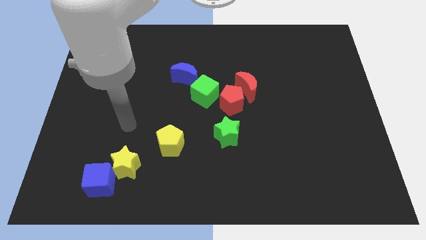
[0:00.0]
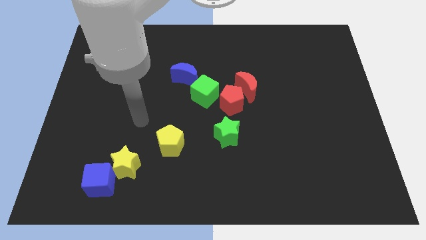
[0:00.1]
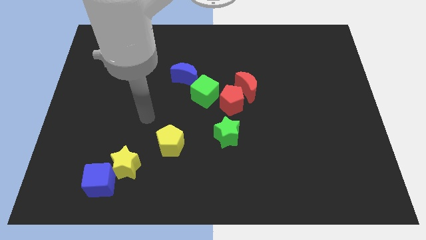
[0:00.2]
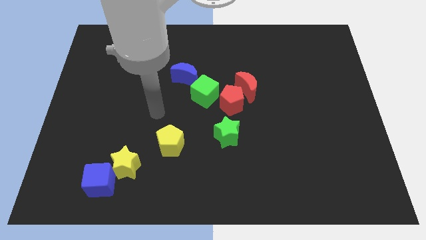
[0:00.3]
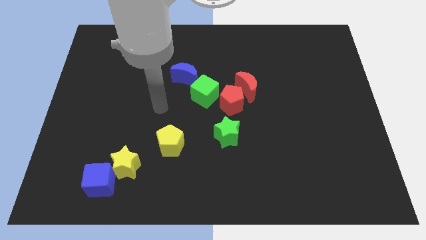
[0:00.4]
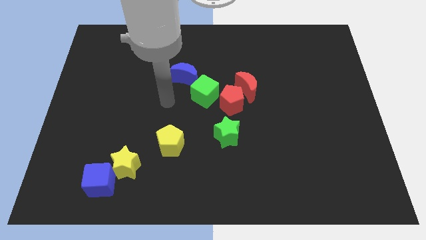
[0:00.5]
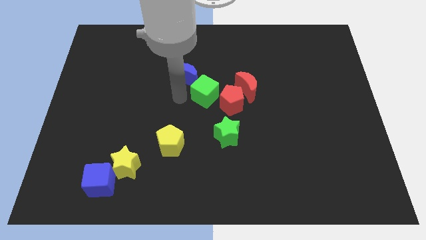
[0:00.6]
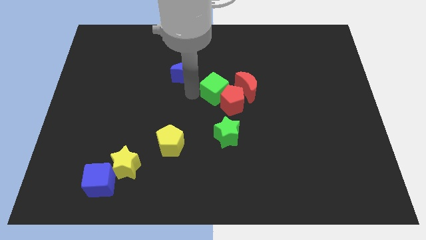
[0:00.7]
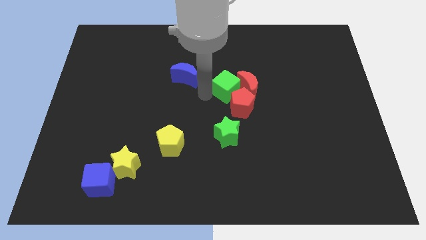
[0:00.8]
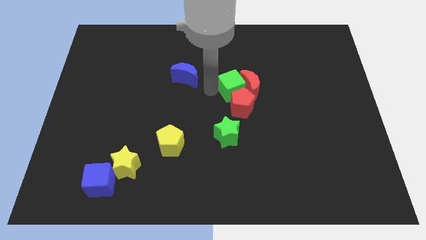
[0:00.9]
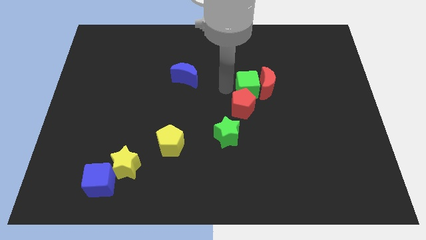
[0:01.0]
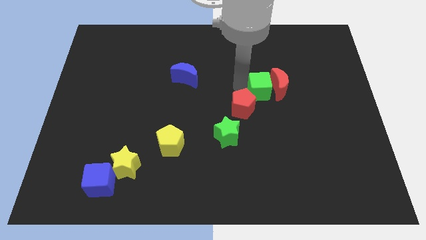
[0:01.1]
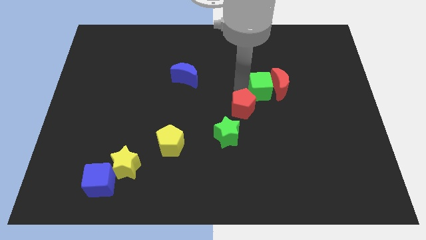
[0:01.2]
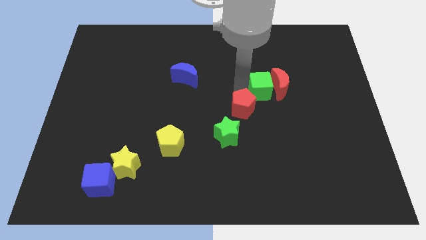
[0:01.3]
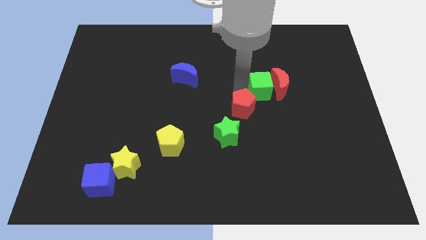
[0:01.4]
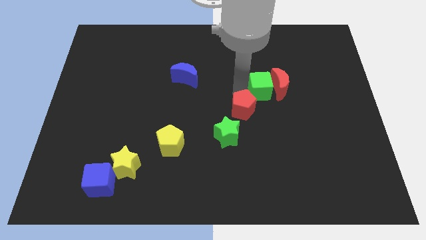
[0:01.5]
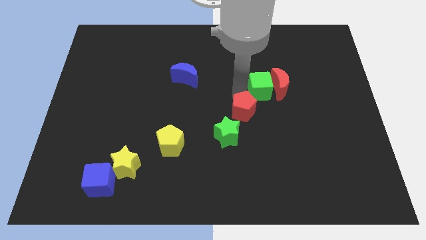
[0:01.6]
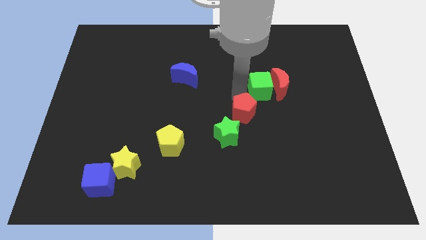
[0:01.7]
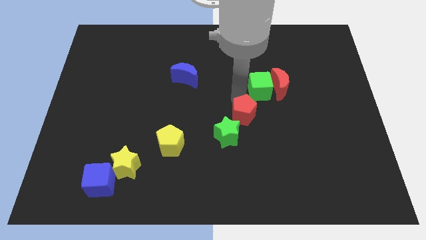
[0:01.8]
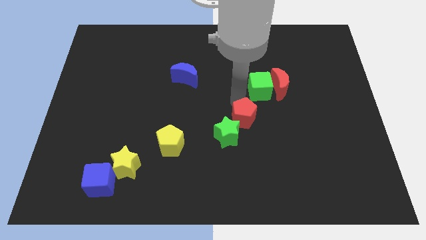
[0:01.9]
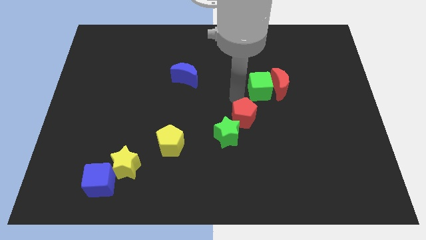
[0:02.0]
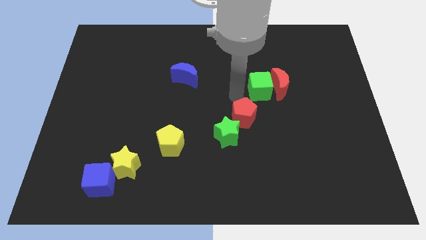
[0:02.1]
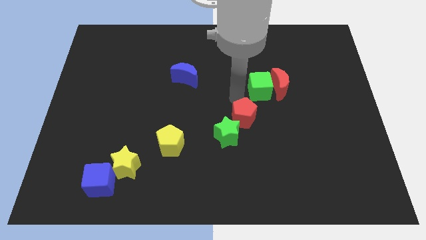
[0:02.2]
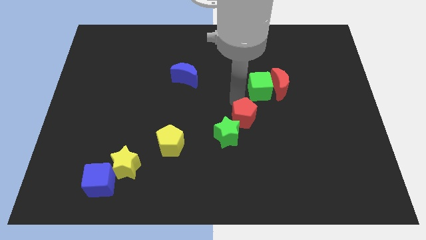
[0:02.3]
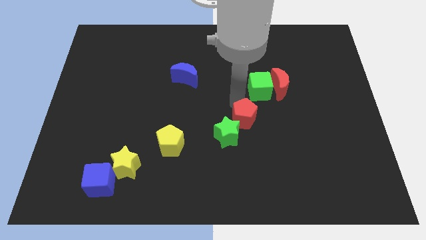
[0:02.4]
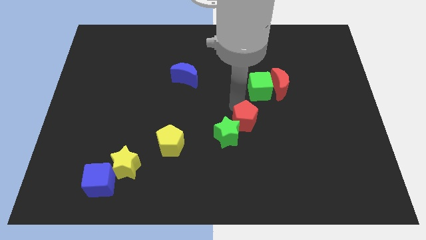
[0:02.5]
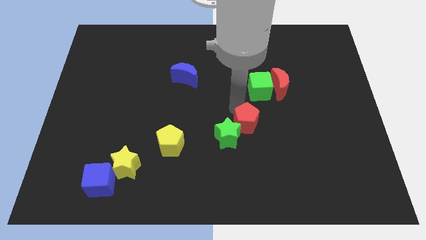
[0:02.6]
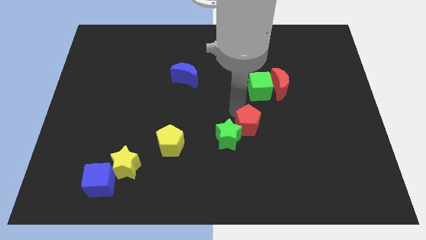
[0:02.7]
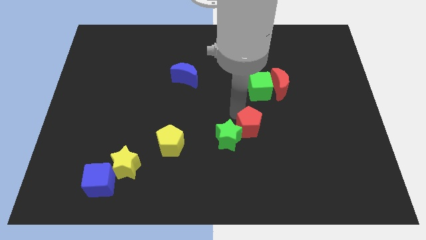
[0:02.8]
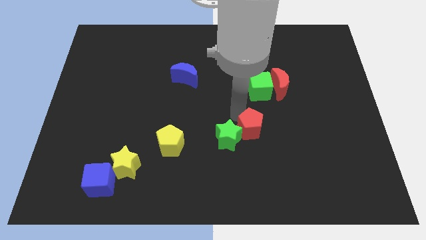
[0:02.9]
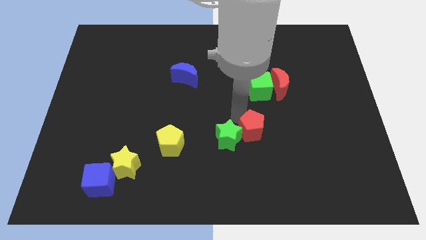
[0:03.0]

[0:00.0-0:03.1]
push the red pentagon downwards somewhat

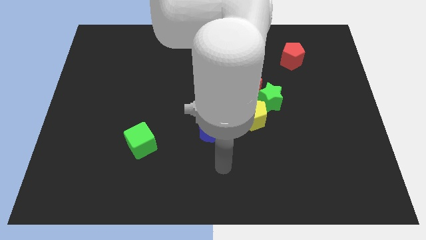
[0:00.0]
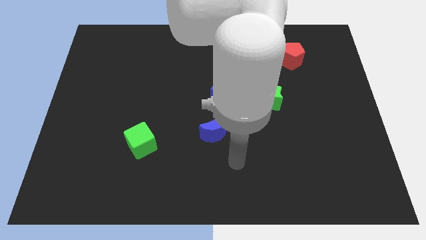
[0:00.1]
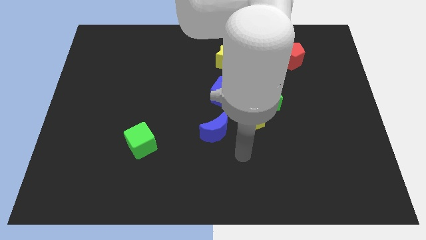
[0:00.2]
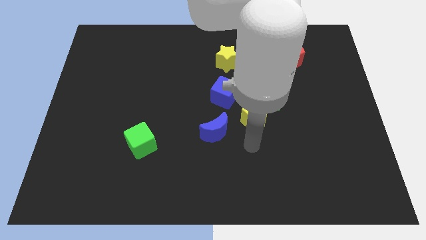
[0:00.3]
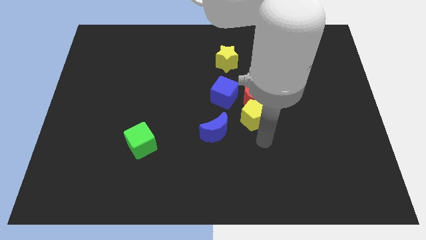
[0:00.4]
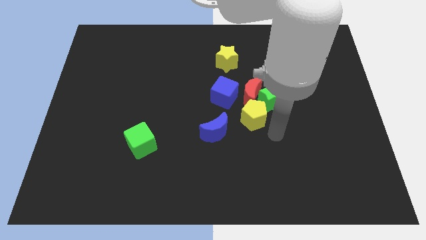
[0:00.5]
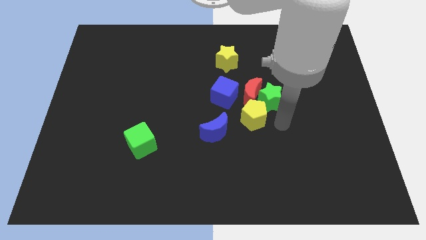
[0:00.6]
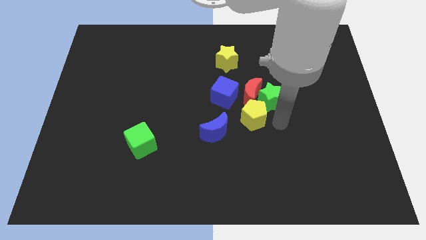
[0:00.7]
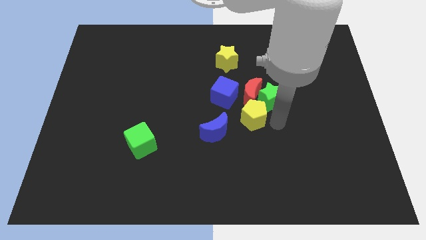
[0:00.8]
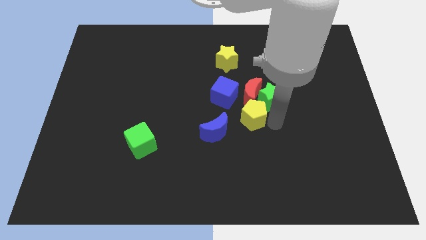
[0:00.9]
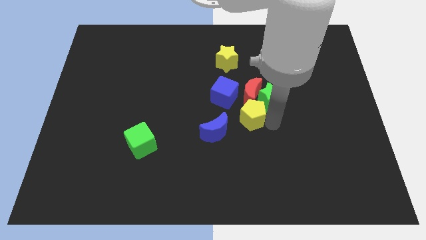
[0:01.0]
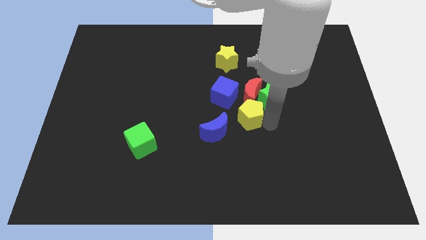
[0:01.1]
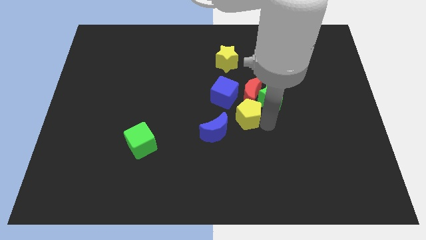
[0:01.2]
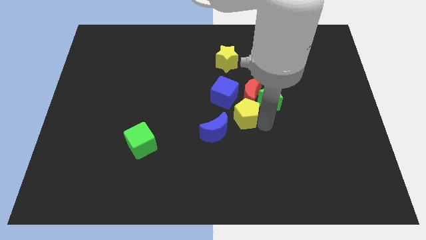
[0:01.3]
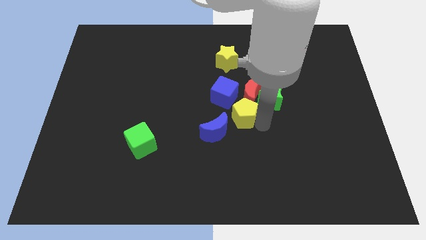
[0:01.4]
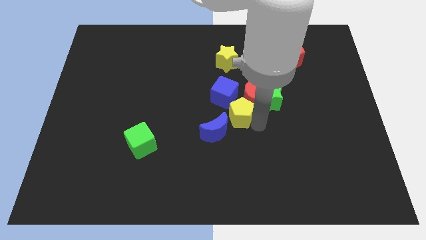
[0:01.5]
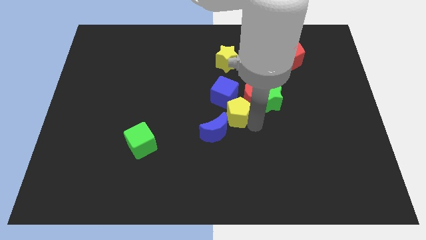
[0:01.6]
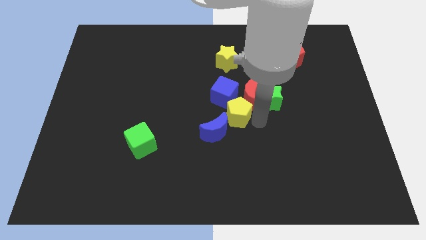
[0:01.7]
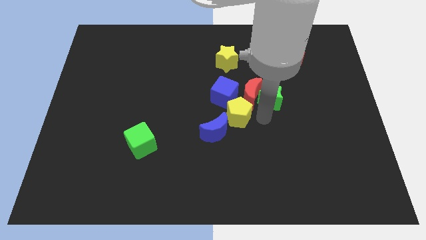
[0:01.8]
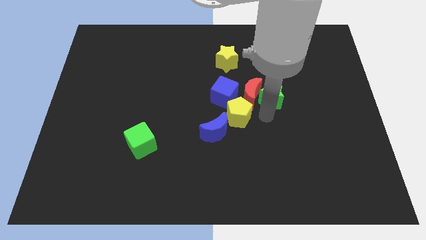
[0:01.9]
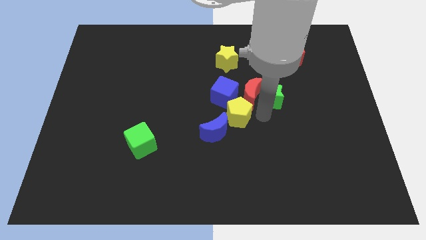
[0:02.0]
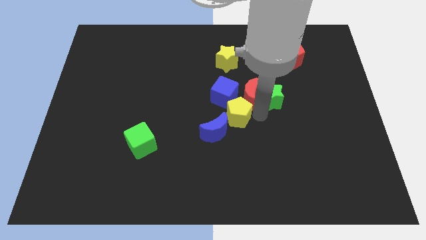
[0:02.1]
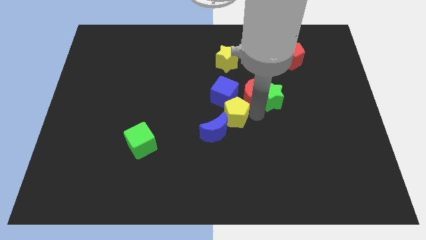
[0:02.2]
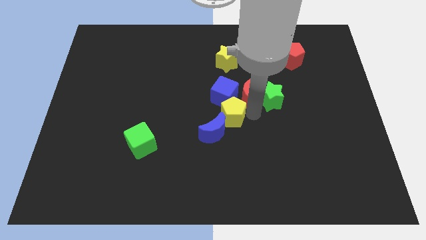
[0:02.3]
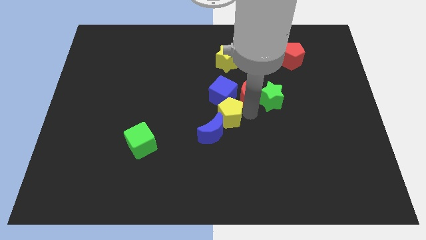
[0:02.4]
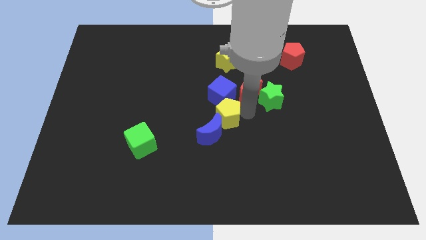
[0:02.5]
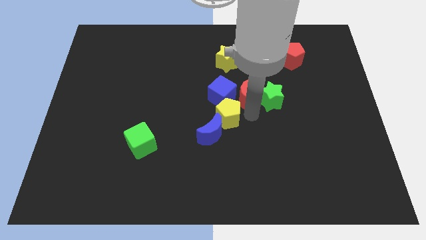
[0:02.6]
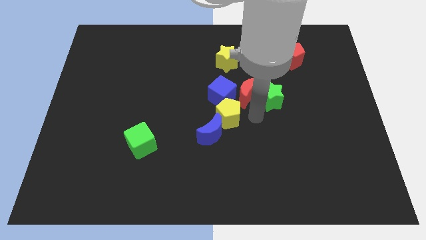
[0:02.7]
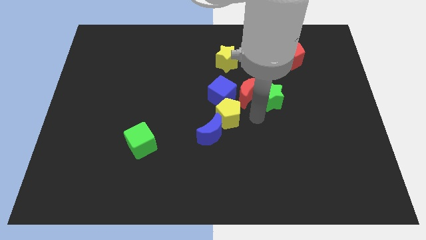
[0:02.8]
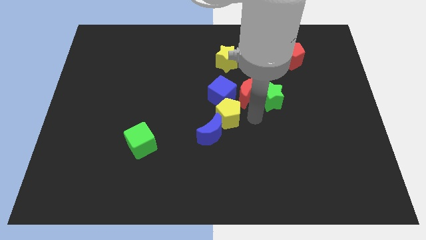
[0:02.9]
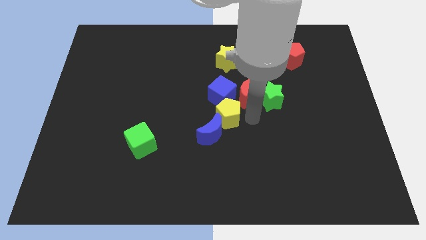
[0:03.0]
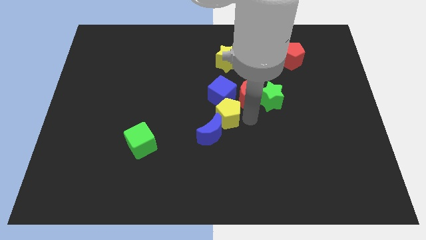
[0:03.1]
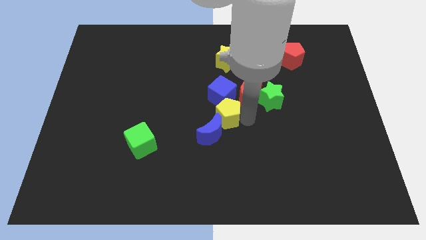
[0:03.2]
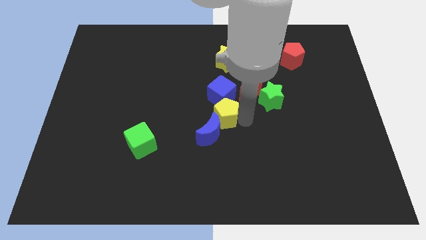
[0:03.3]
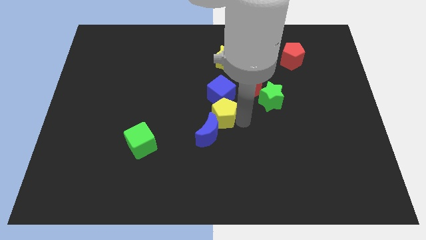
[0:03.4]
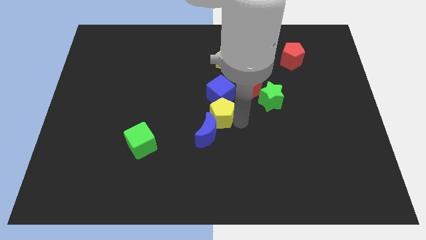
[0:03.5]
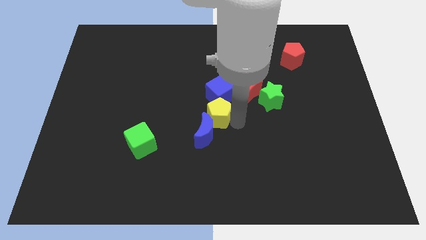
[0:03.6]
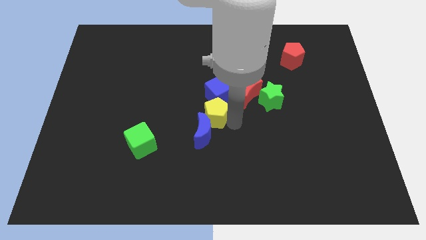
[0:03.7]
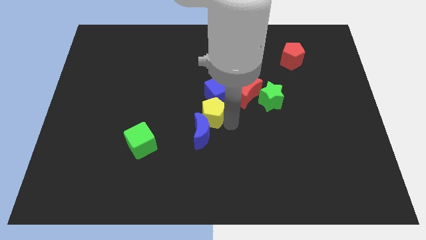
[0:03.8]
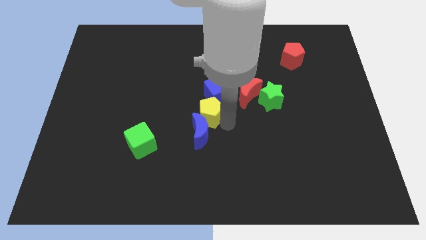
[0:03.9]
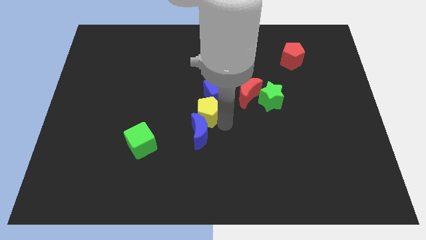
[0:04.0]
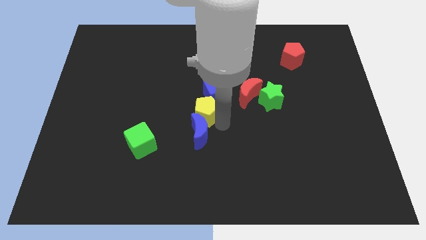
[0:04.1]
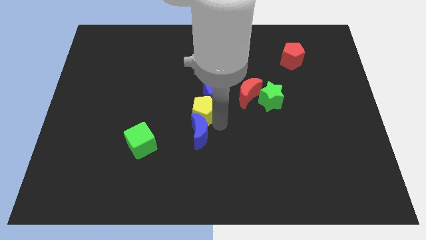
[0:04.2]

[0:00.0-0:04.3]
push the yellow pentagon up and left diagonally a little bit

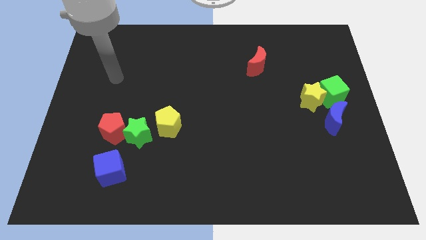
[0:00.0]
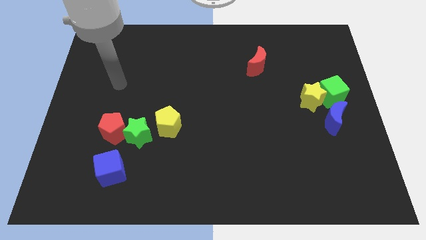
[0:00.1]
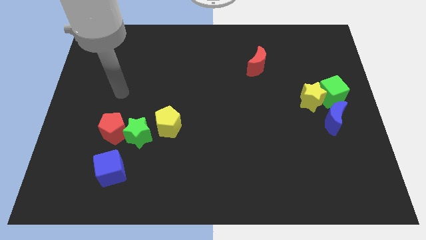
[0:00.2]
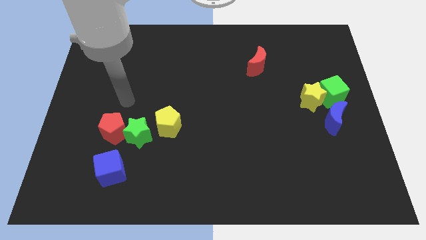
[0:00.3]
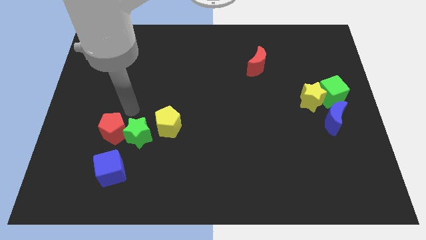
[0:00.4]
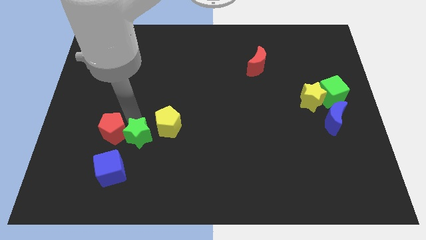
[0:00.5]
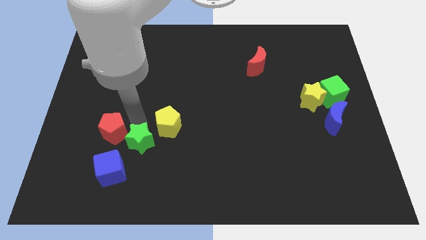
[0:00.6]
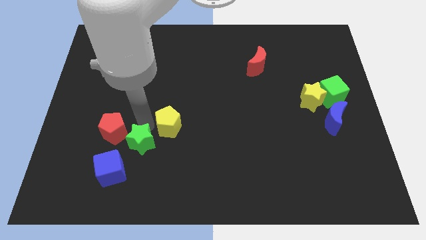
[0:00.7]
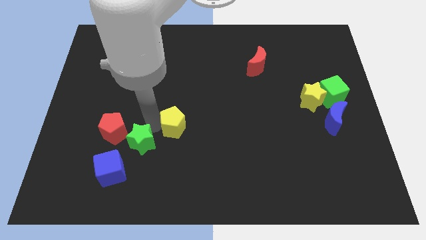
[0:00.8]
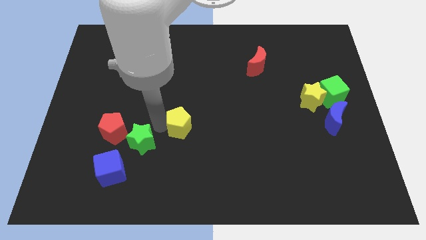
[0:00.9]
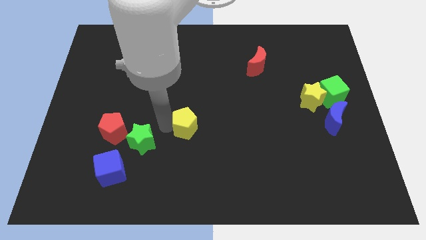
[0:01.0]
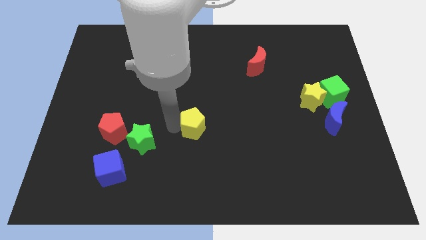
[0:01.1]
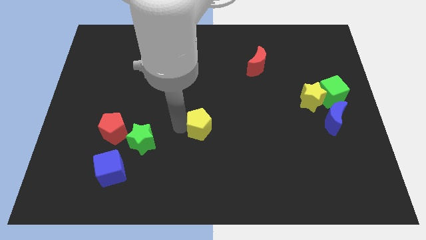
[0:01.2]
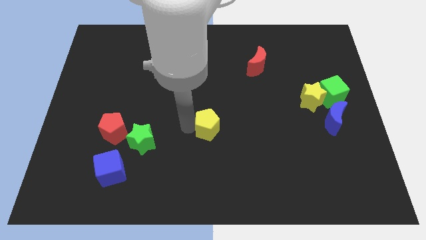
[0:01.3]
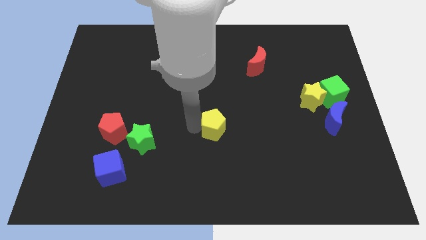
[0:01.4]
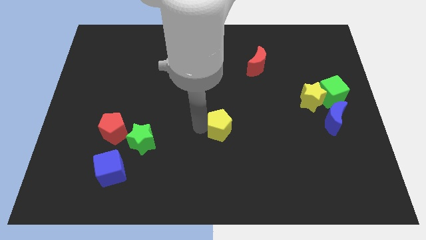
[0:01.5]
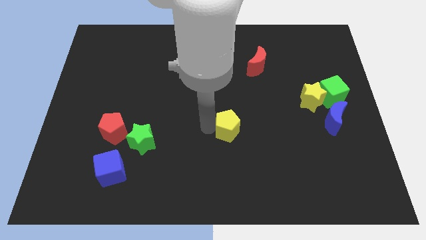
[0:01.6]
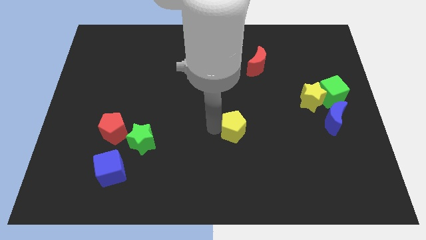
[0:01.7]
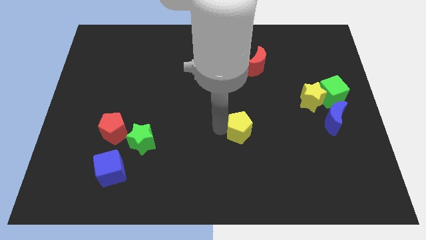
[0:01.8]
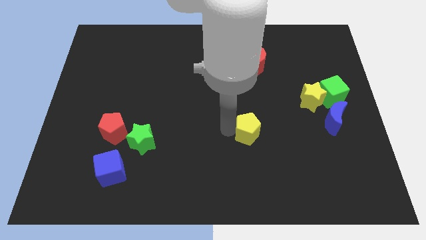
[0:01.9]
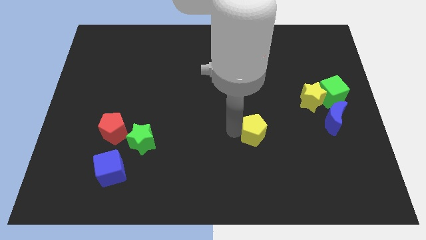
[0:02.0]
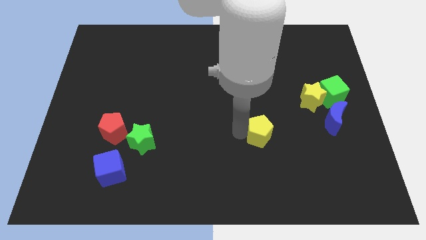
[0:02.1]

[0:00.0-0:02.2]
move the yellow pentagon to the right
